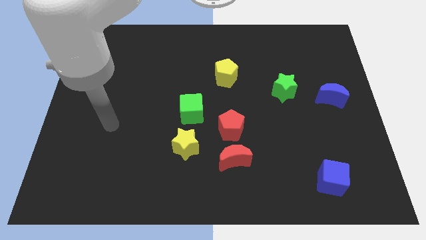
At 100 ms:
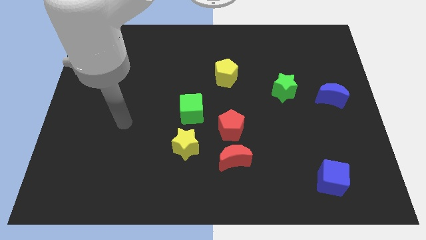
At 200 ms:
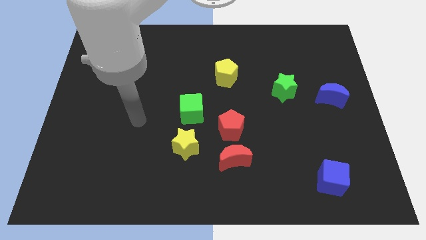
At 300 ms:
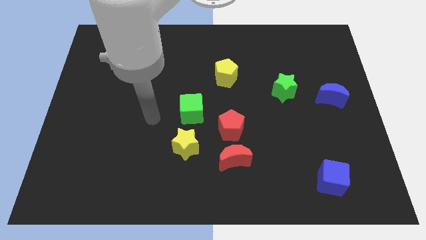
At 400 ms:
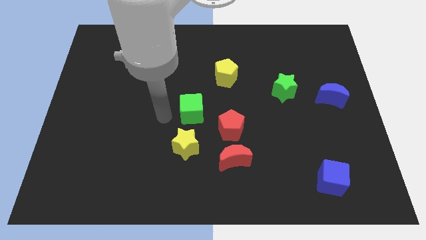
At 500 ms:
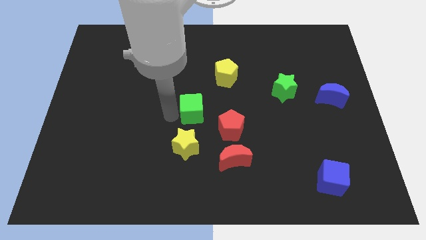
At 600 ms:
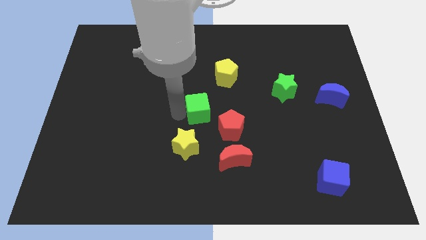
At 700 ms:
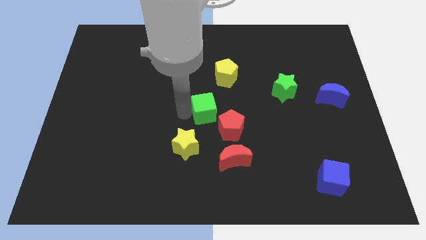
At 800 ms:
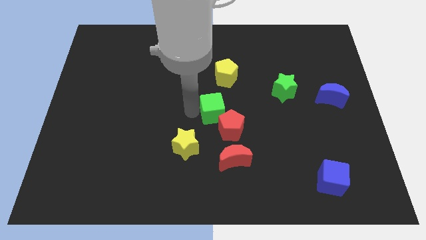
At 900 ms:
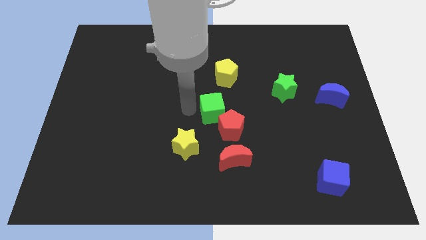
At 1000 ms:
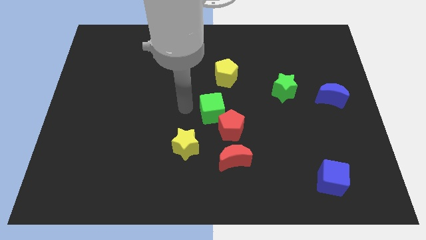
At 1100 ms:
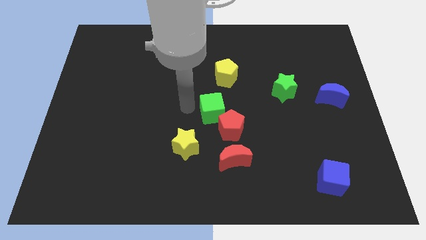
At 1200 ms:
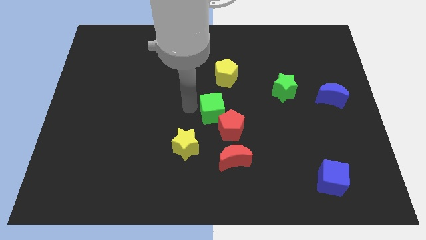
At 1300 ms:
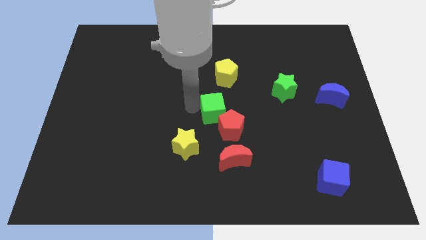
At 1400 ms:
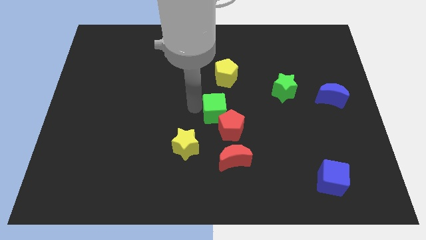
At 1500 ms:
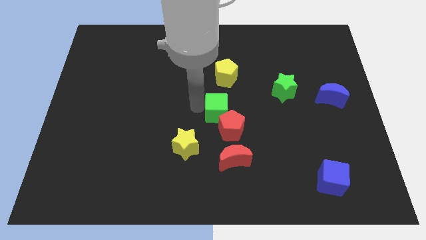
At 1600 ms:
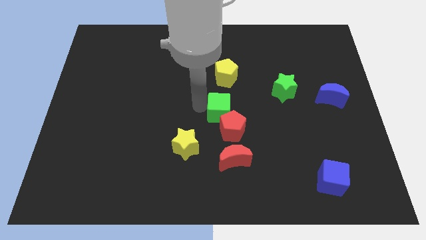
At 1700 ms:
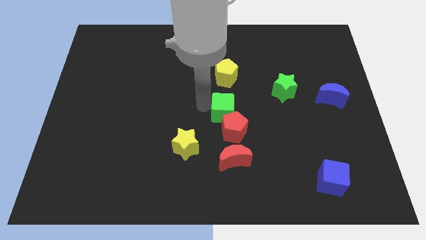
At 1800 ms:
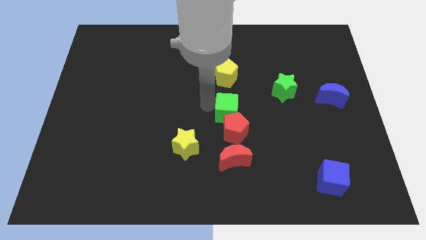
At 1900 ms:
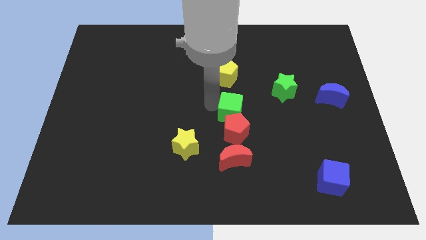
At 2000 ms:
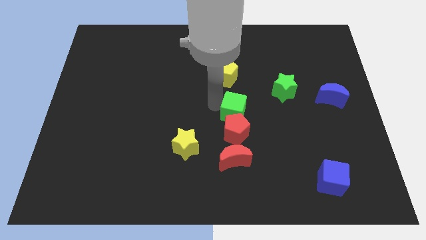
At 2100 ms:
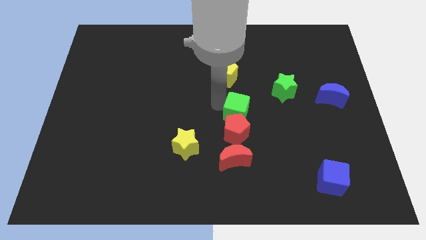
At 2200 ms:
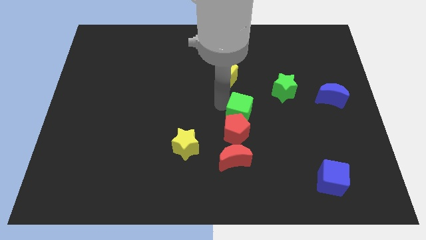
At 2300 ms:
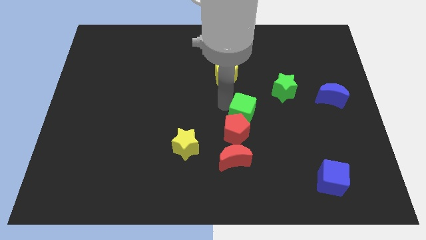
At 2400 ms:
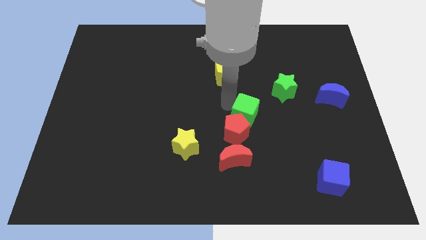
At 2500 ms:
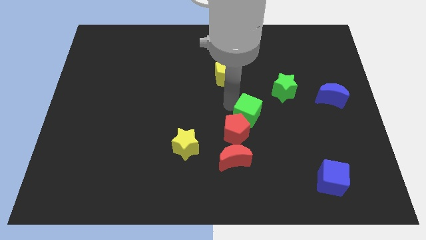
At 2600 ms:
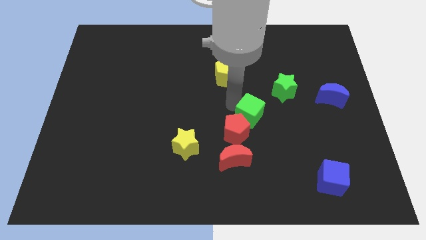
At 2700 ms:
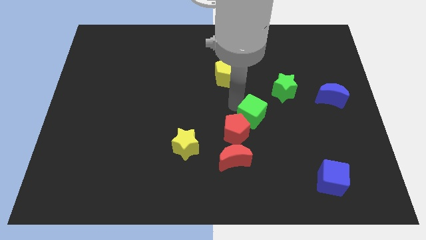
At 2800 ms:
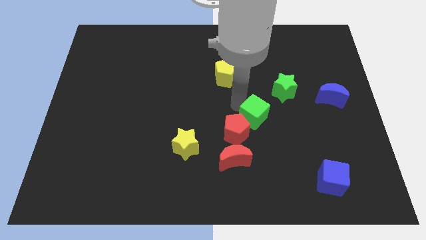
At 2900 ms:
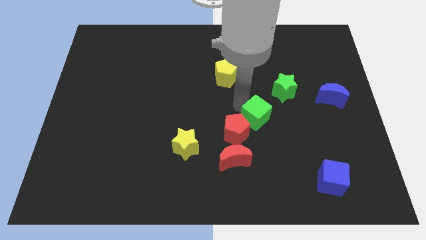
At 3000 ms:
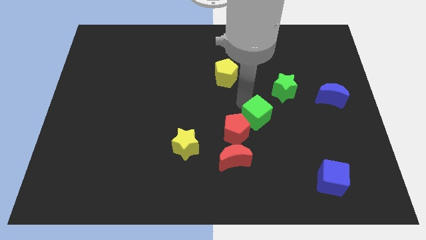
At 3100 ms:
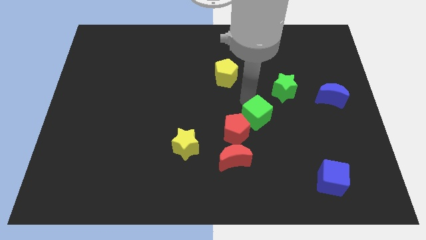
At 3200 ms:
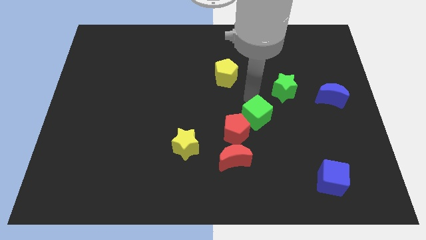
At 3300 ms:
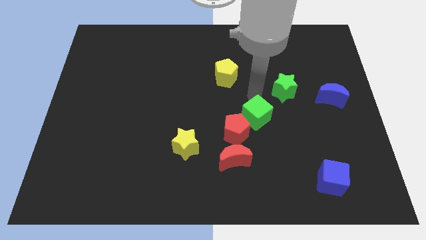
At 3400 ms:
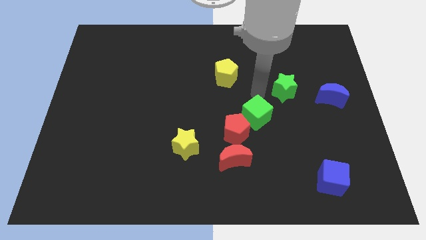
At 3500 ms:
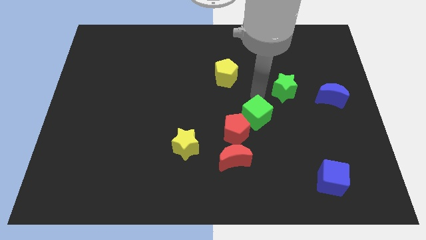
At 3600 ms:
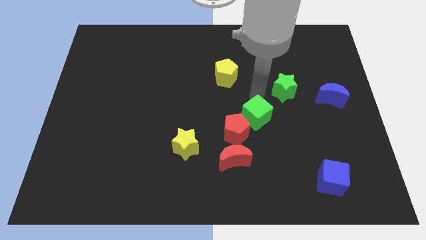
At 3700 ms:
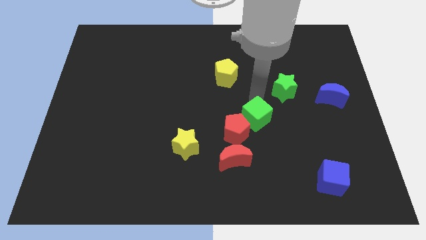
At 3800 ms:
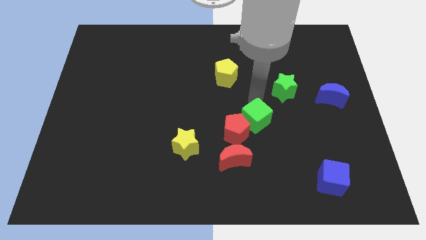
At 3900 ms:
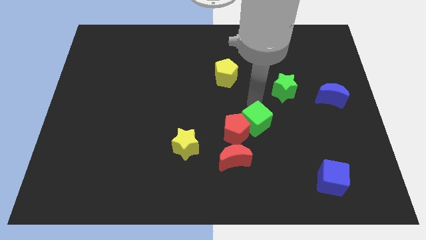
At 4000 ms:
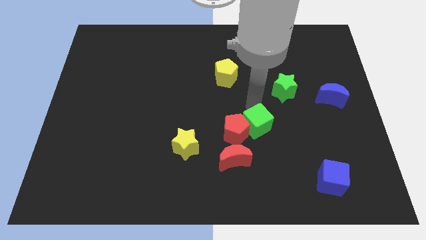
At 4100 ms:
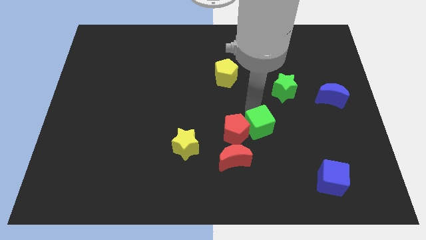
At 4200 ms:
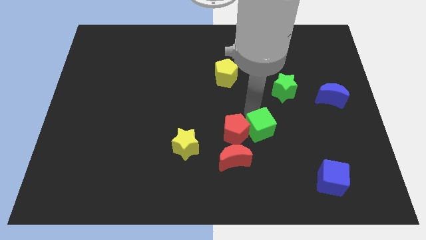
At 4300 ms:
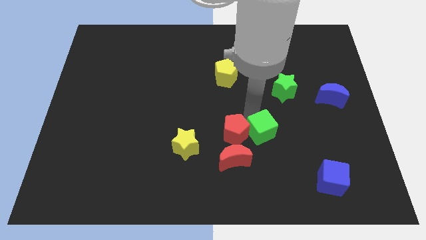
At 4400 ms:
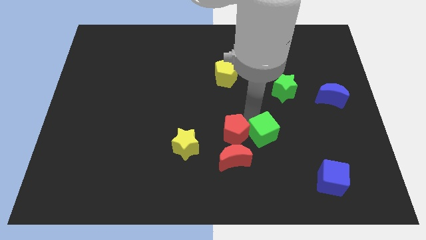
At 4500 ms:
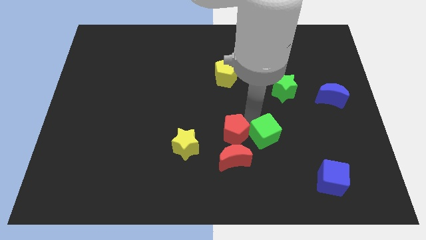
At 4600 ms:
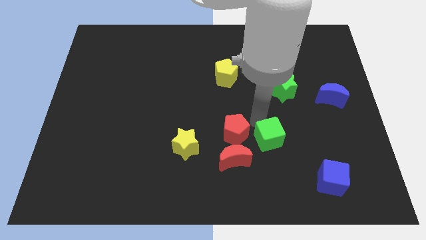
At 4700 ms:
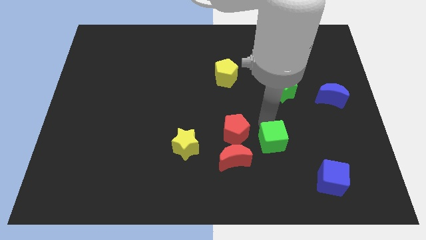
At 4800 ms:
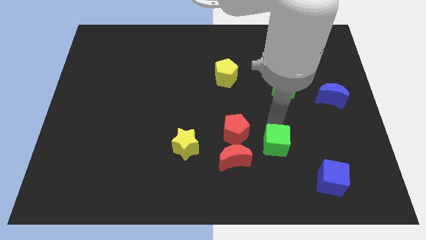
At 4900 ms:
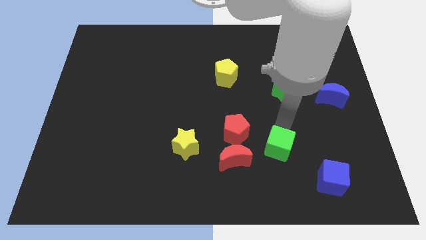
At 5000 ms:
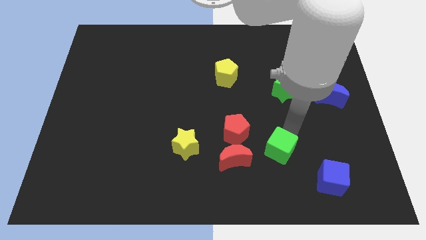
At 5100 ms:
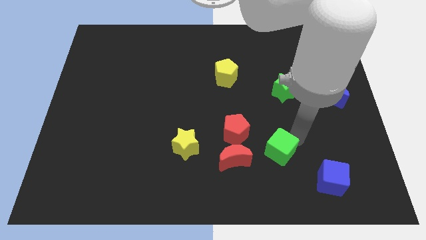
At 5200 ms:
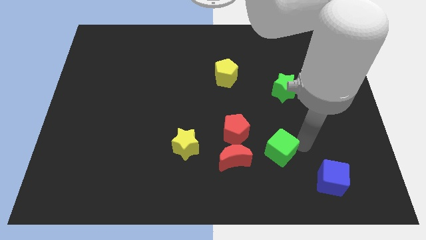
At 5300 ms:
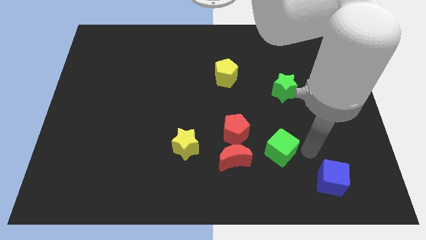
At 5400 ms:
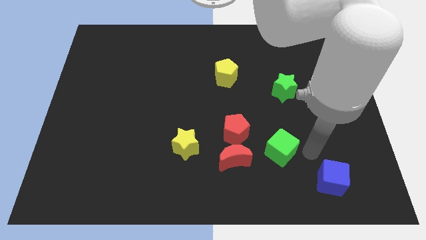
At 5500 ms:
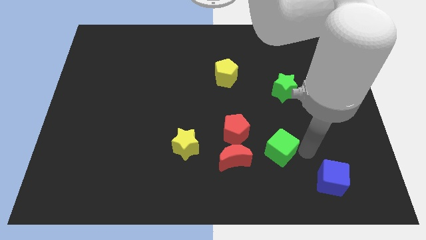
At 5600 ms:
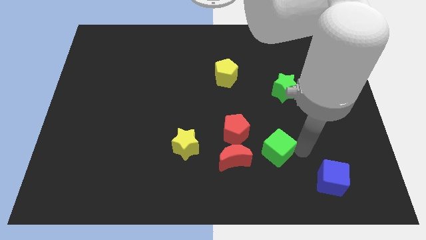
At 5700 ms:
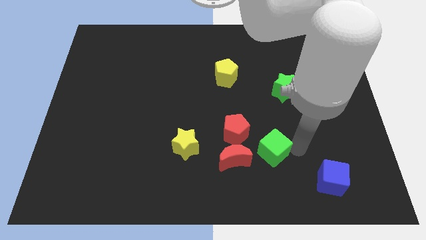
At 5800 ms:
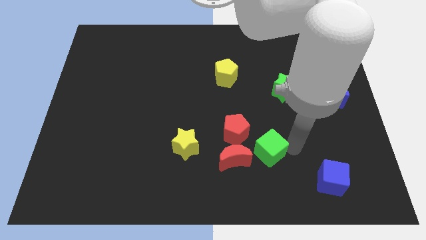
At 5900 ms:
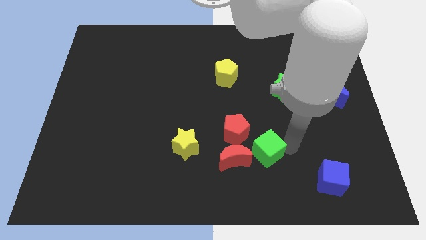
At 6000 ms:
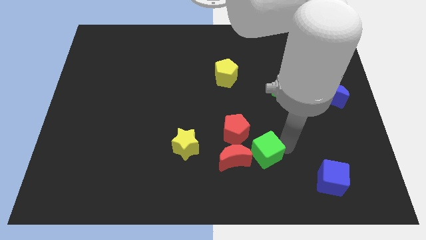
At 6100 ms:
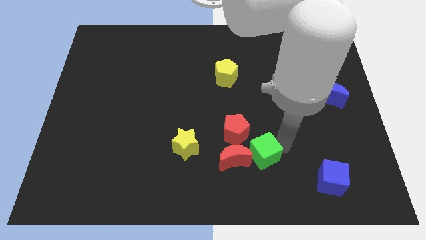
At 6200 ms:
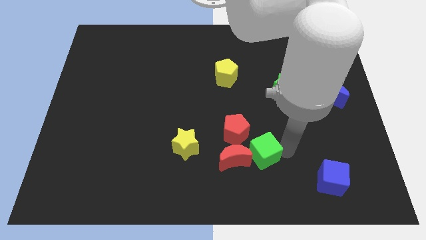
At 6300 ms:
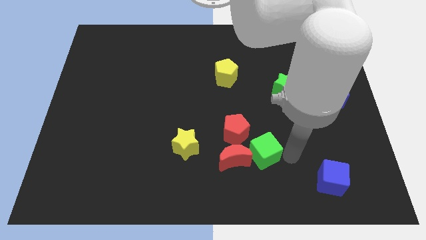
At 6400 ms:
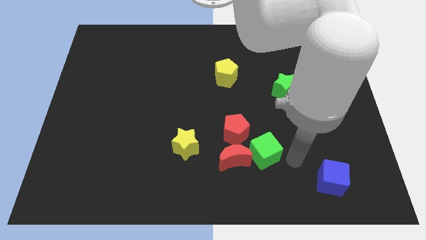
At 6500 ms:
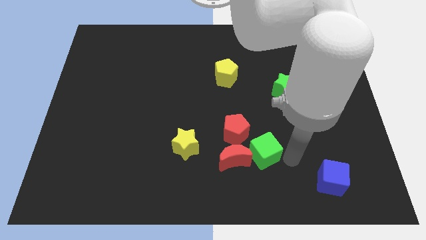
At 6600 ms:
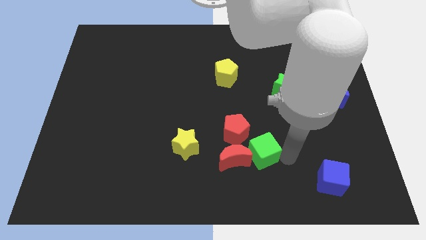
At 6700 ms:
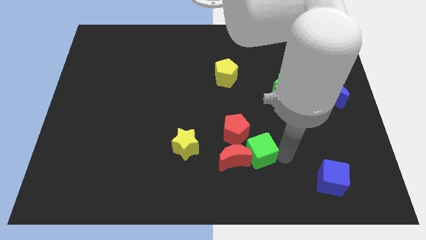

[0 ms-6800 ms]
put the green cube to the right of the yellow star

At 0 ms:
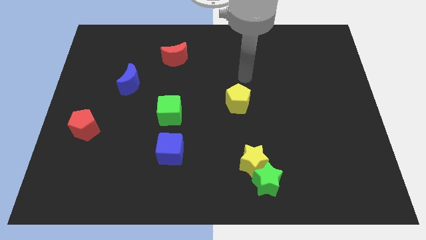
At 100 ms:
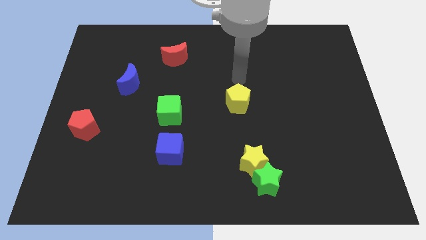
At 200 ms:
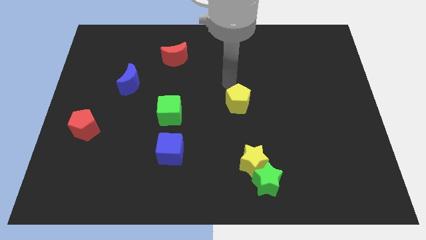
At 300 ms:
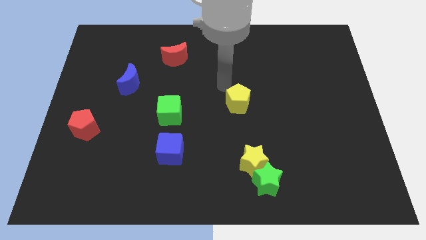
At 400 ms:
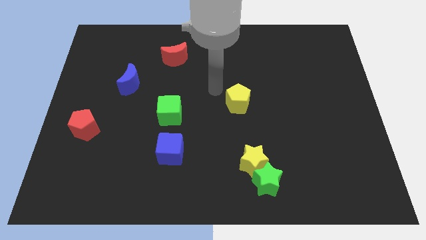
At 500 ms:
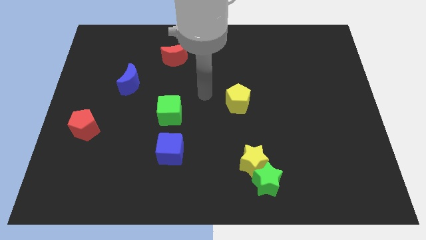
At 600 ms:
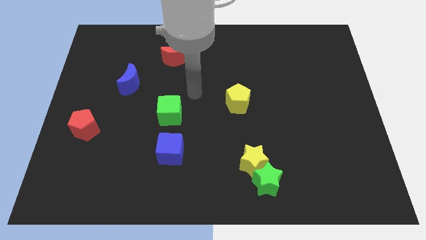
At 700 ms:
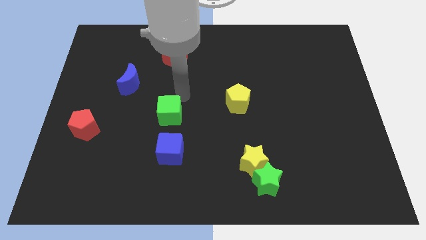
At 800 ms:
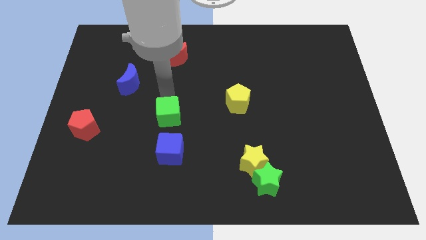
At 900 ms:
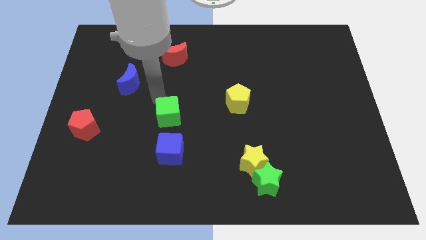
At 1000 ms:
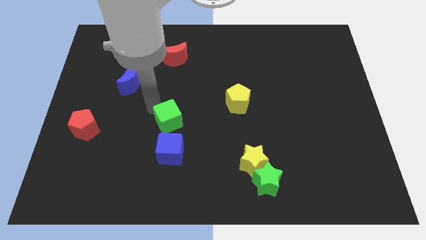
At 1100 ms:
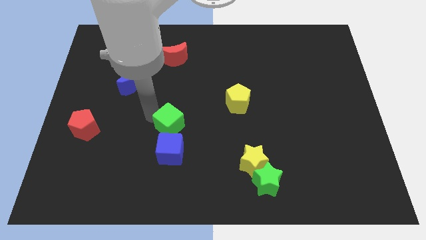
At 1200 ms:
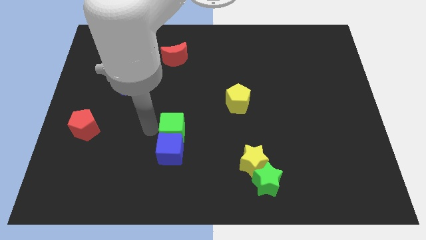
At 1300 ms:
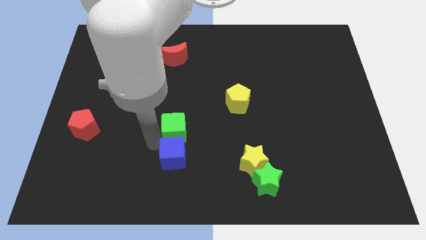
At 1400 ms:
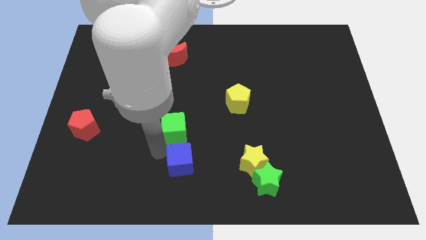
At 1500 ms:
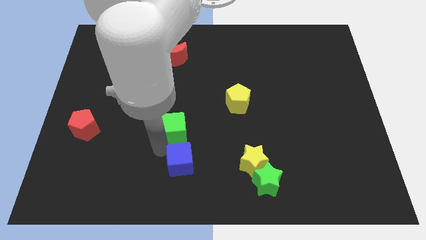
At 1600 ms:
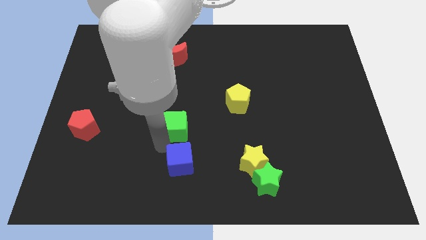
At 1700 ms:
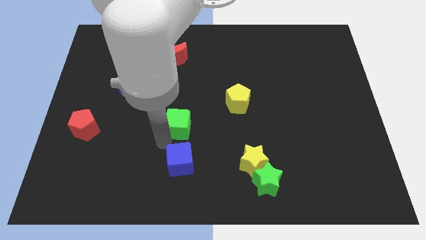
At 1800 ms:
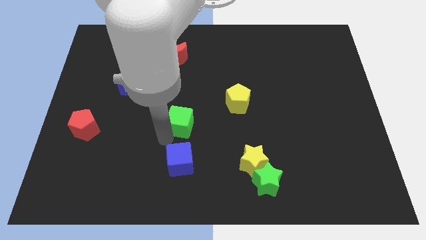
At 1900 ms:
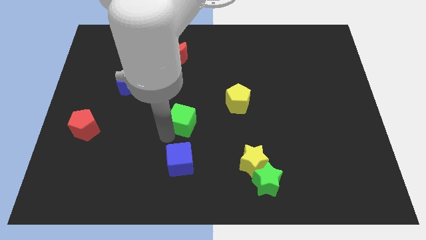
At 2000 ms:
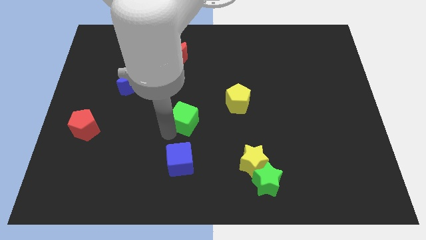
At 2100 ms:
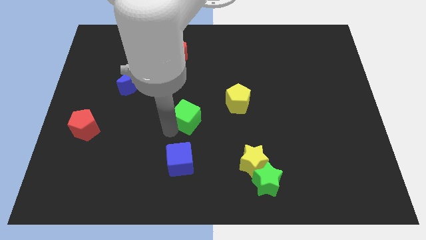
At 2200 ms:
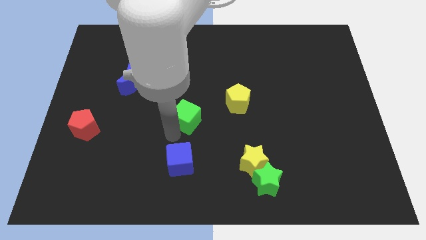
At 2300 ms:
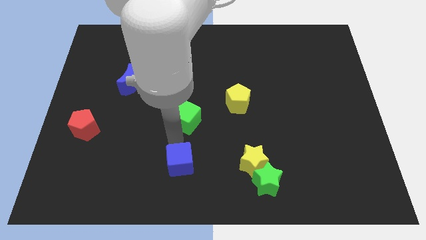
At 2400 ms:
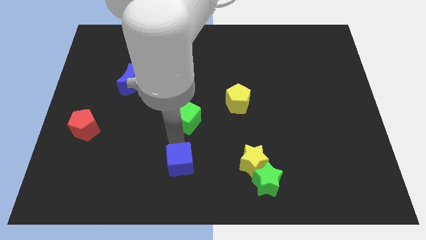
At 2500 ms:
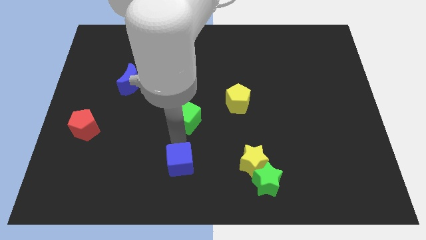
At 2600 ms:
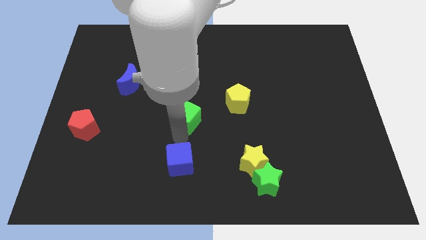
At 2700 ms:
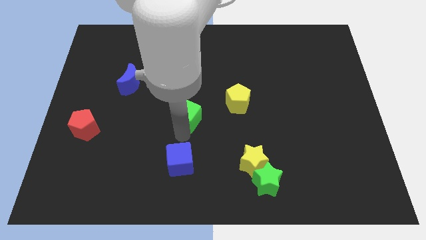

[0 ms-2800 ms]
push the green cube just left of the yellow pentagon
